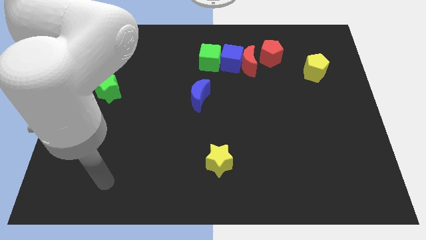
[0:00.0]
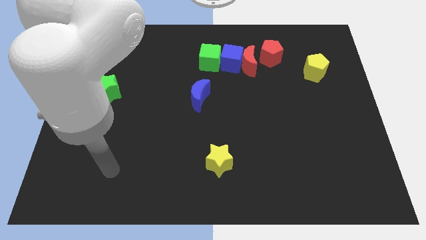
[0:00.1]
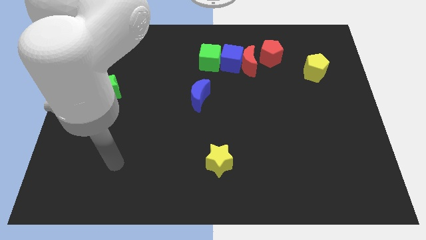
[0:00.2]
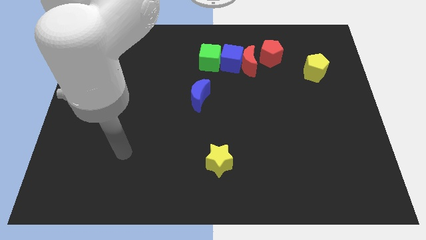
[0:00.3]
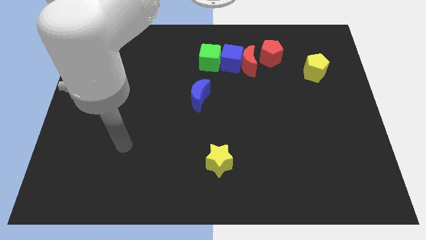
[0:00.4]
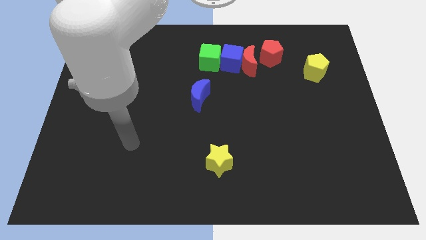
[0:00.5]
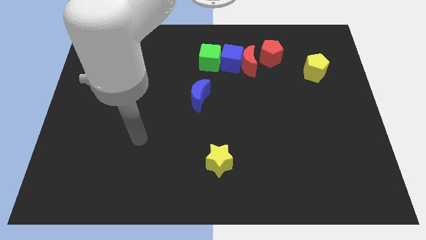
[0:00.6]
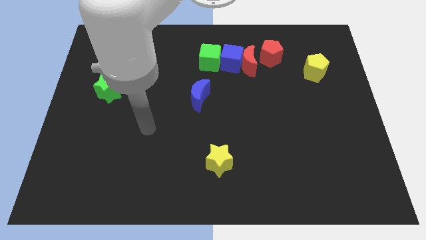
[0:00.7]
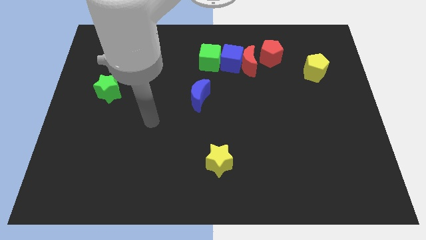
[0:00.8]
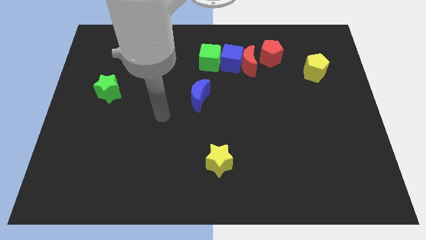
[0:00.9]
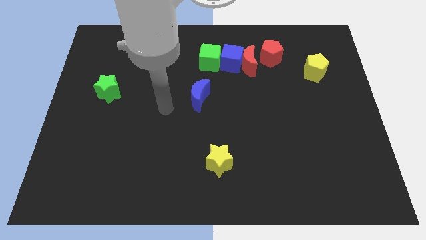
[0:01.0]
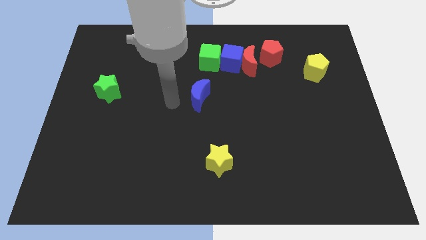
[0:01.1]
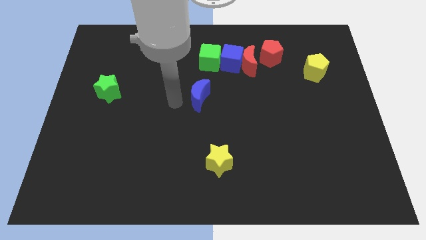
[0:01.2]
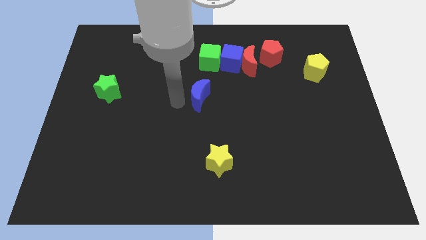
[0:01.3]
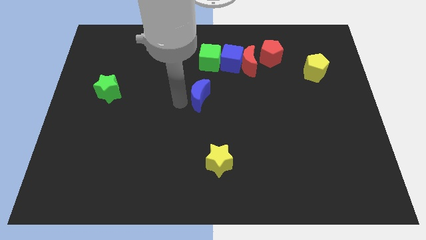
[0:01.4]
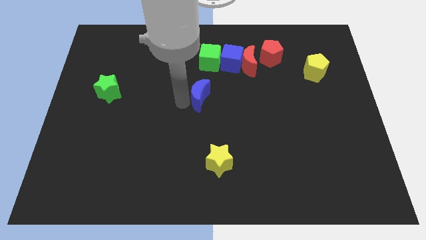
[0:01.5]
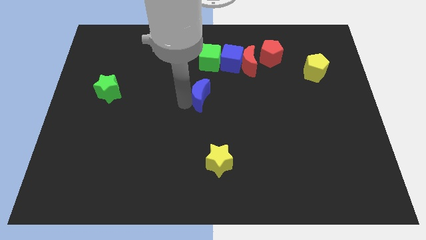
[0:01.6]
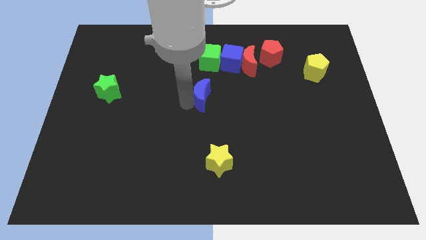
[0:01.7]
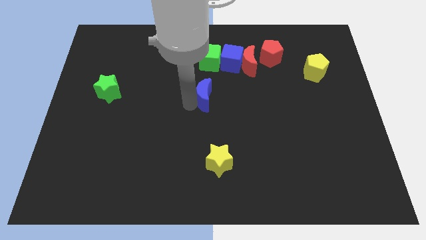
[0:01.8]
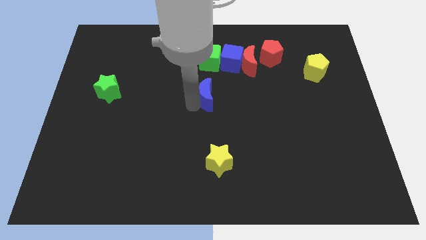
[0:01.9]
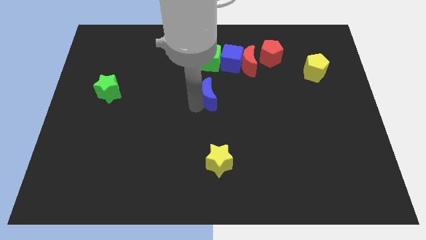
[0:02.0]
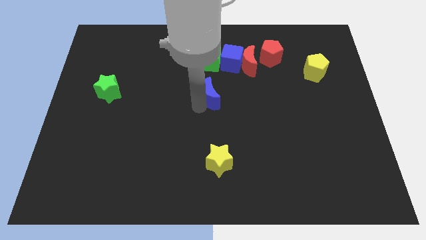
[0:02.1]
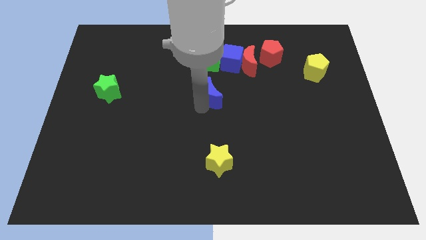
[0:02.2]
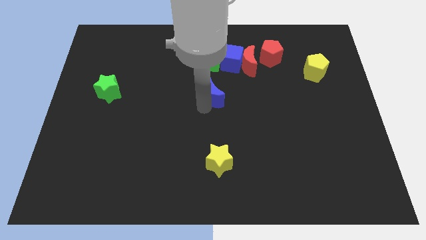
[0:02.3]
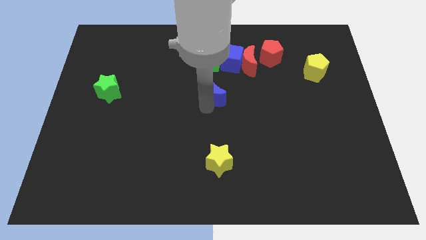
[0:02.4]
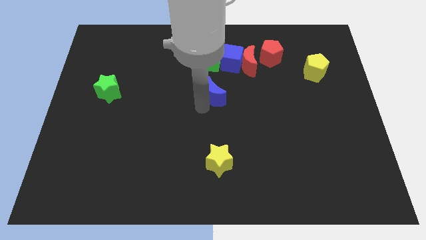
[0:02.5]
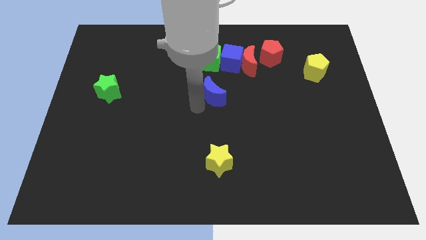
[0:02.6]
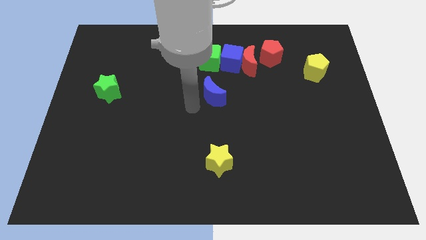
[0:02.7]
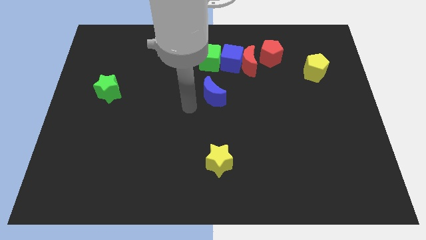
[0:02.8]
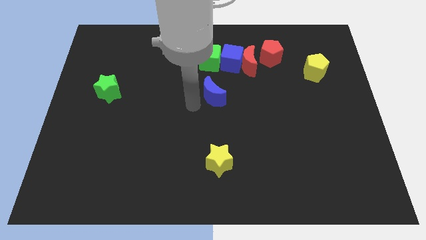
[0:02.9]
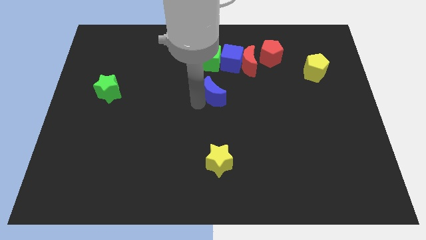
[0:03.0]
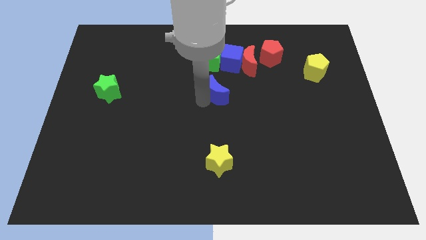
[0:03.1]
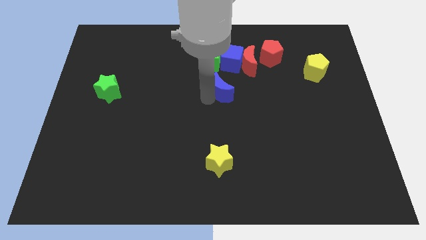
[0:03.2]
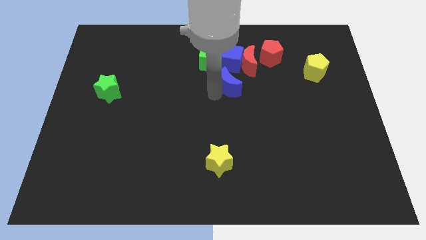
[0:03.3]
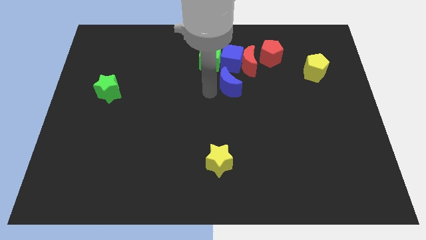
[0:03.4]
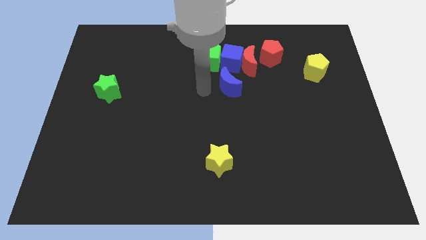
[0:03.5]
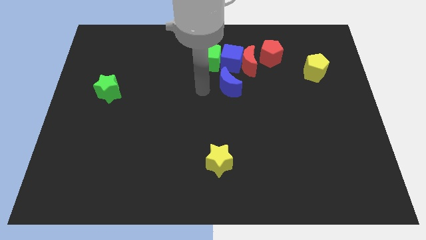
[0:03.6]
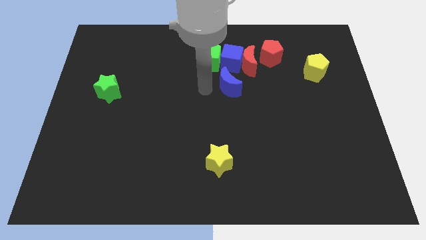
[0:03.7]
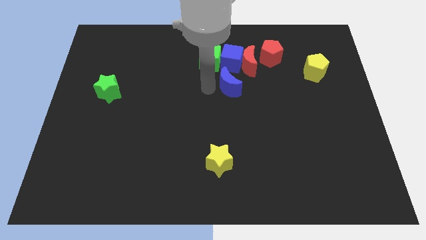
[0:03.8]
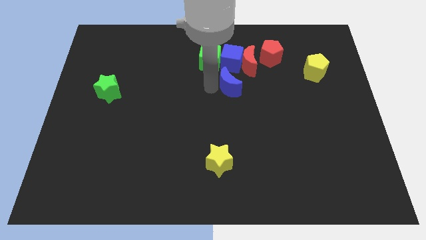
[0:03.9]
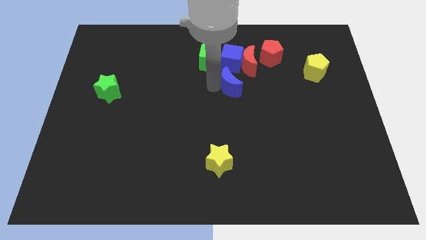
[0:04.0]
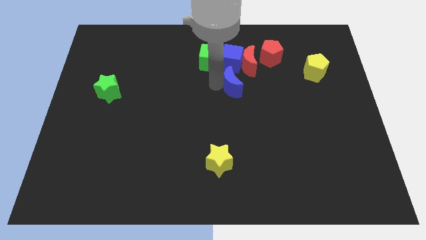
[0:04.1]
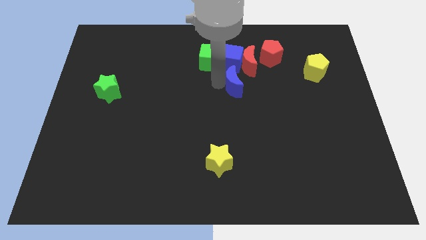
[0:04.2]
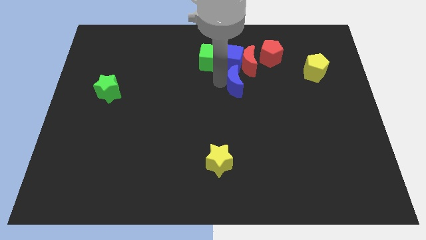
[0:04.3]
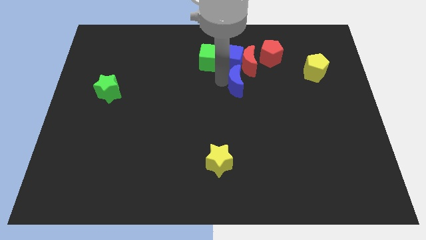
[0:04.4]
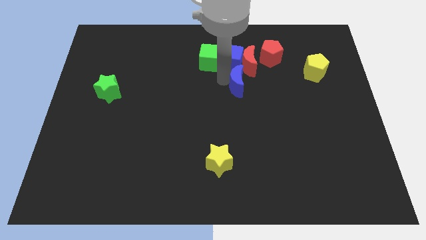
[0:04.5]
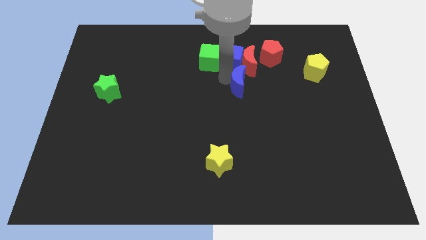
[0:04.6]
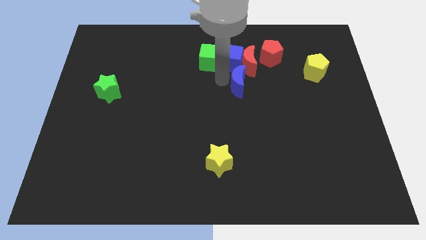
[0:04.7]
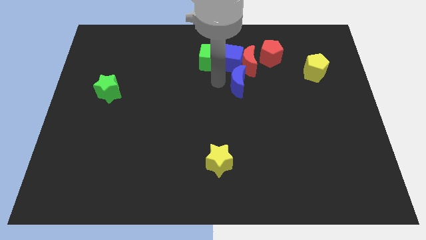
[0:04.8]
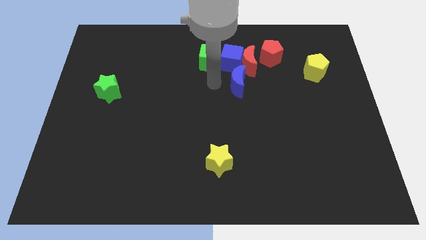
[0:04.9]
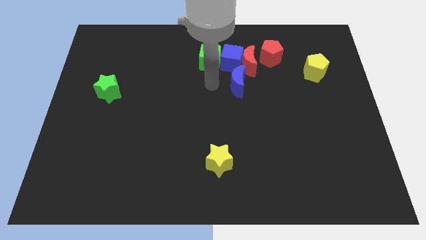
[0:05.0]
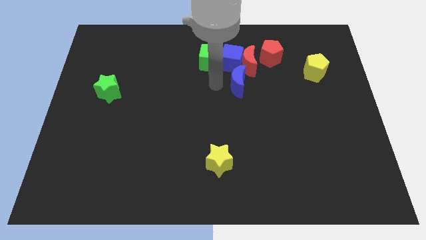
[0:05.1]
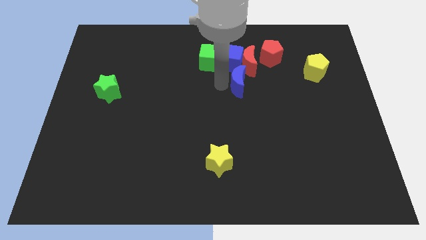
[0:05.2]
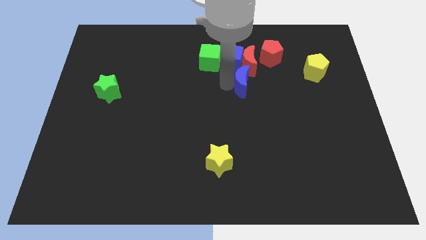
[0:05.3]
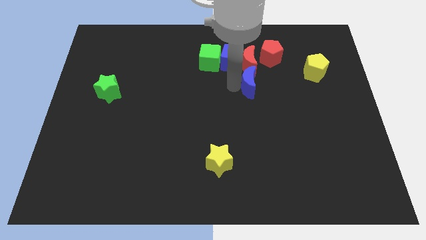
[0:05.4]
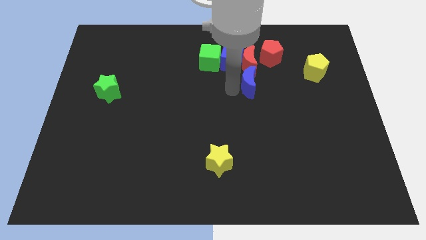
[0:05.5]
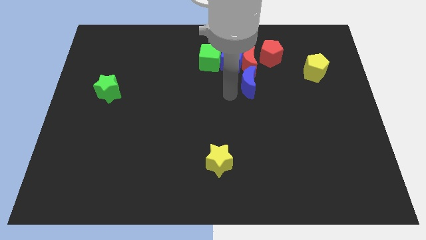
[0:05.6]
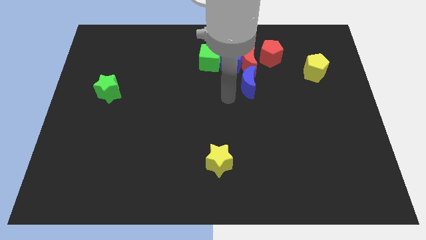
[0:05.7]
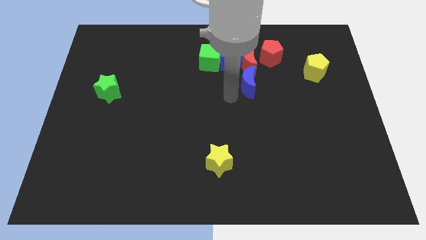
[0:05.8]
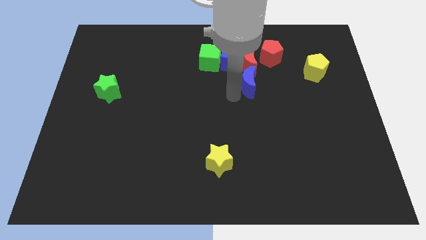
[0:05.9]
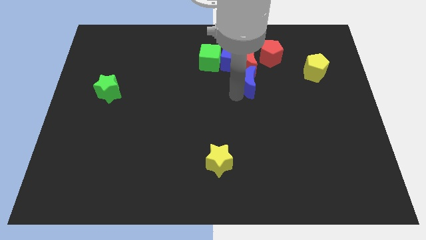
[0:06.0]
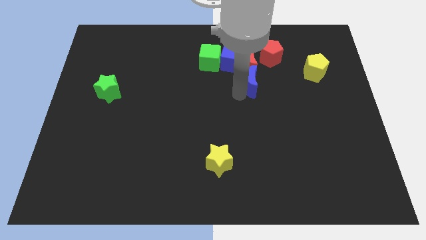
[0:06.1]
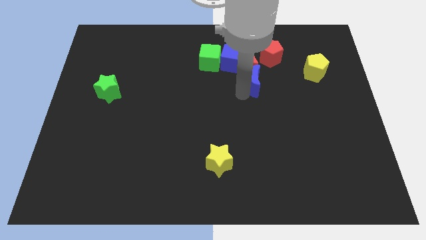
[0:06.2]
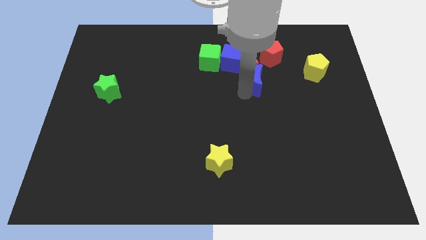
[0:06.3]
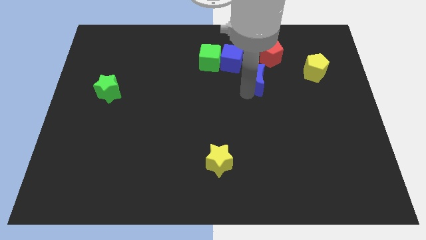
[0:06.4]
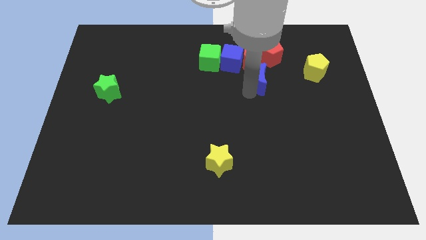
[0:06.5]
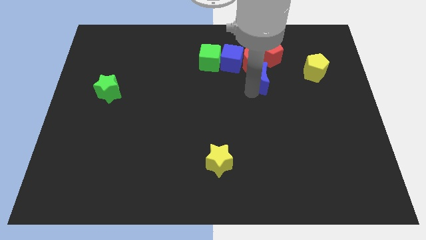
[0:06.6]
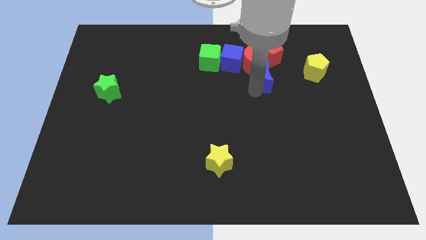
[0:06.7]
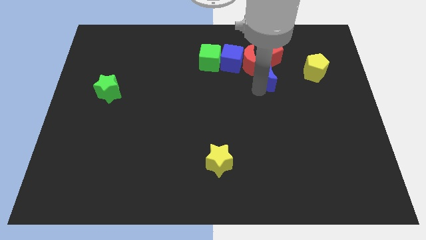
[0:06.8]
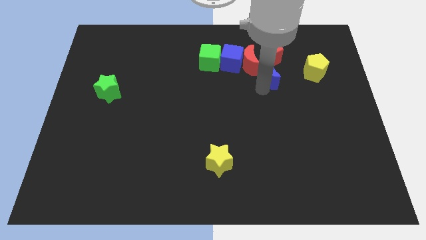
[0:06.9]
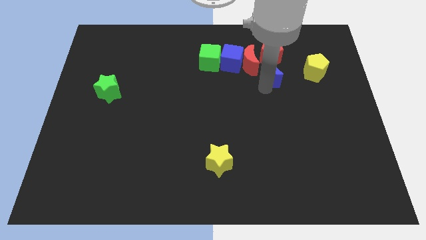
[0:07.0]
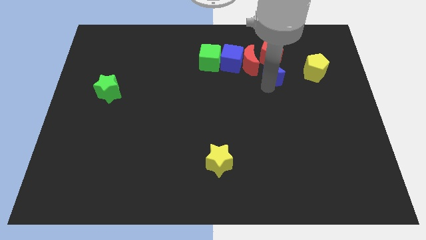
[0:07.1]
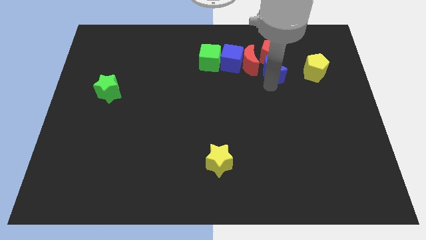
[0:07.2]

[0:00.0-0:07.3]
push the blue moon next to the red pentagon
